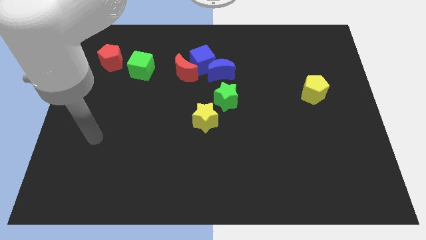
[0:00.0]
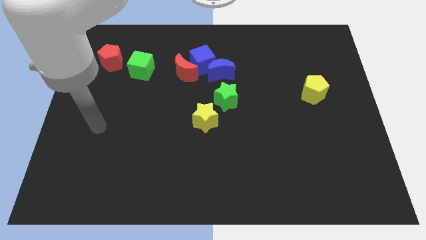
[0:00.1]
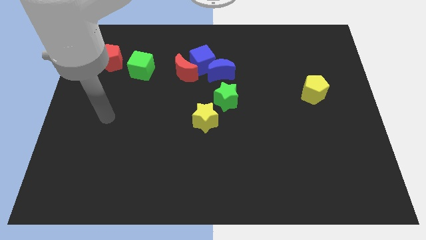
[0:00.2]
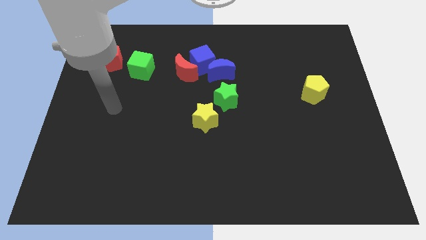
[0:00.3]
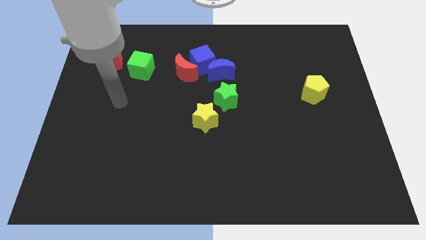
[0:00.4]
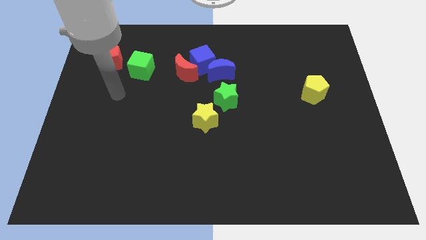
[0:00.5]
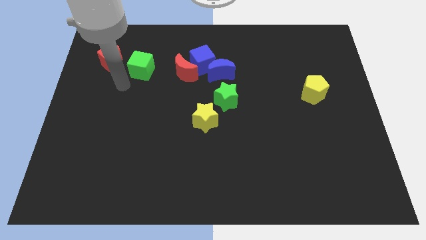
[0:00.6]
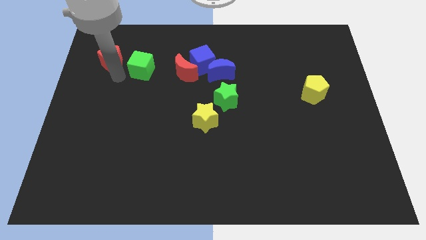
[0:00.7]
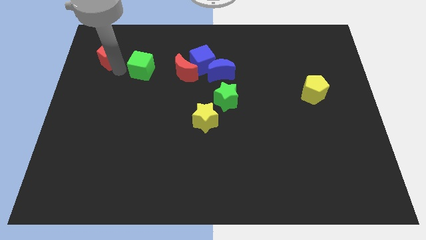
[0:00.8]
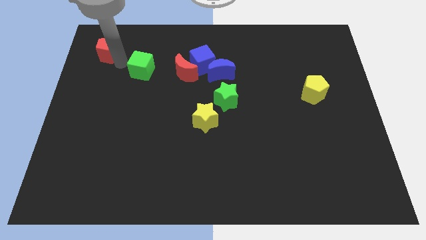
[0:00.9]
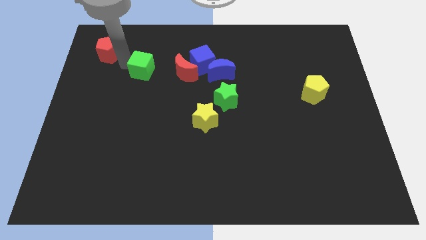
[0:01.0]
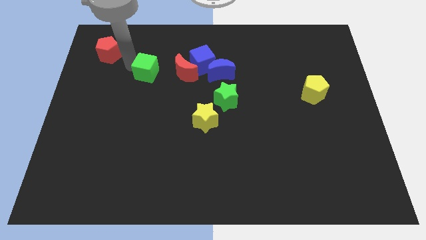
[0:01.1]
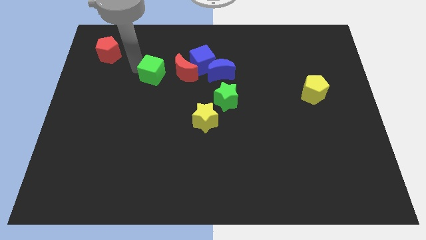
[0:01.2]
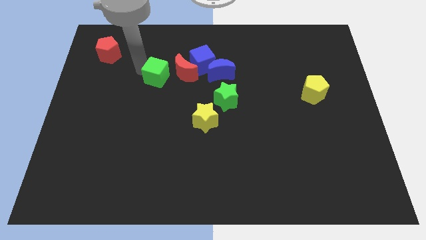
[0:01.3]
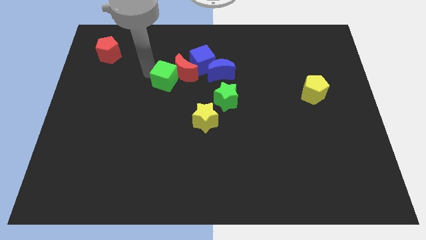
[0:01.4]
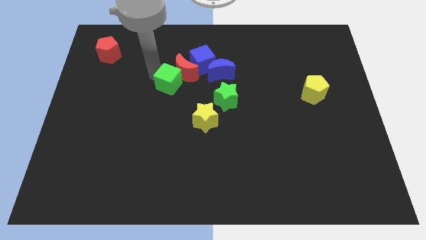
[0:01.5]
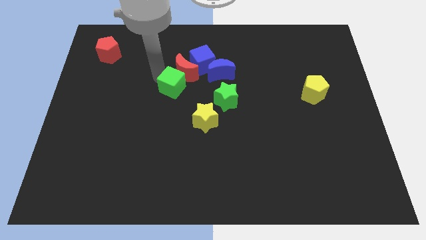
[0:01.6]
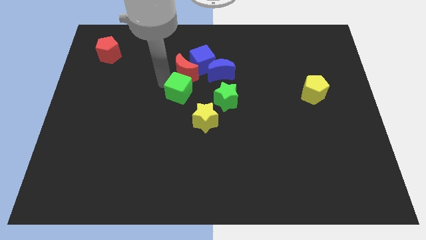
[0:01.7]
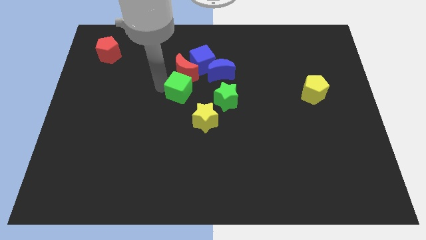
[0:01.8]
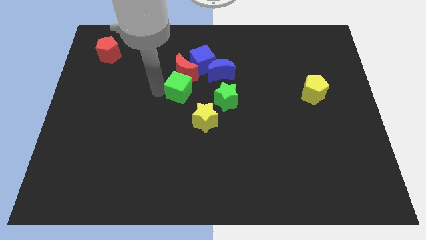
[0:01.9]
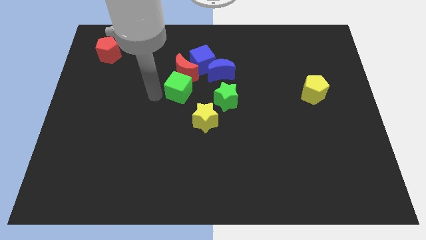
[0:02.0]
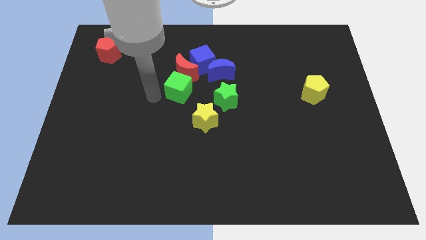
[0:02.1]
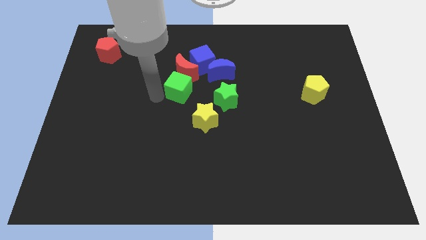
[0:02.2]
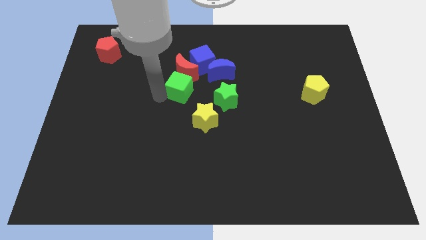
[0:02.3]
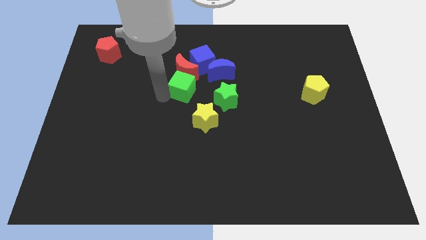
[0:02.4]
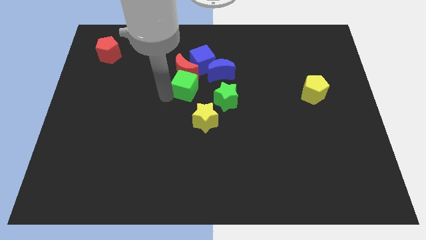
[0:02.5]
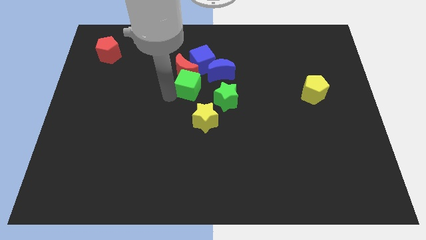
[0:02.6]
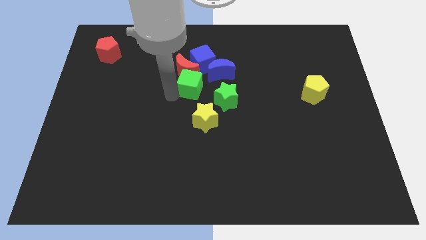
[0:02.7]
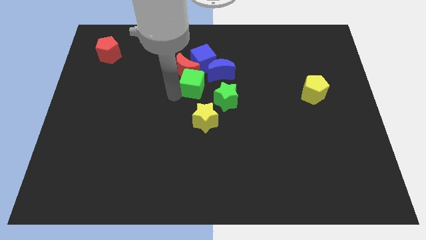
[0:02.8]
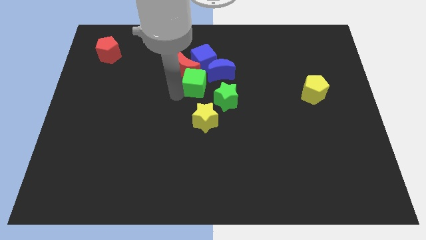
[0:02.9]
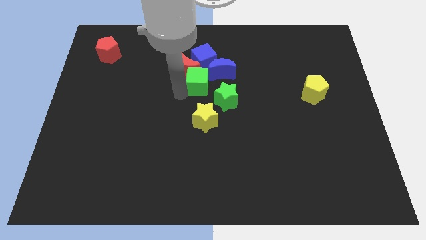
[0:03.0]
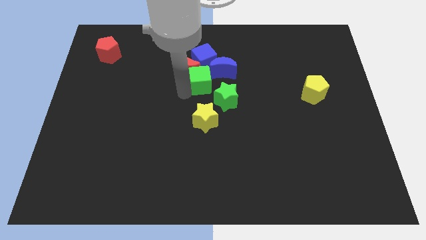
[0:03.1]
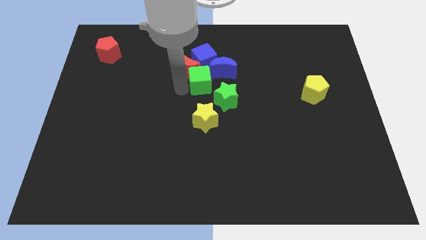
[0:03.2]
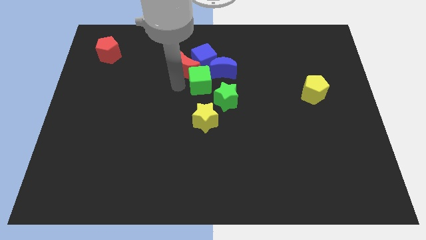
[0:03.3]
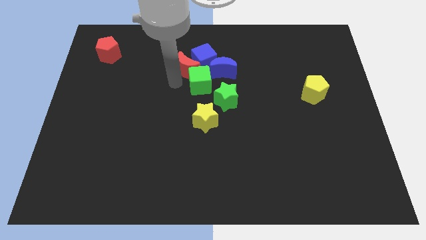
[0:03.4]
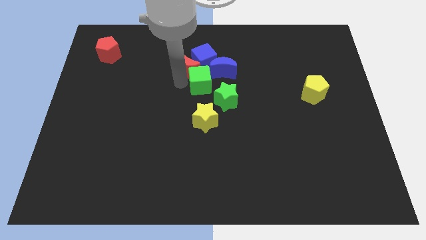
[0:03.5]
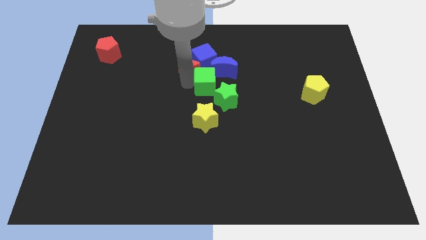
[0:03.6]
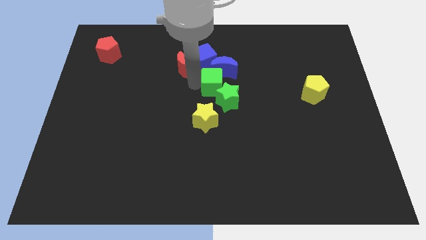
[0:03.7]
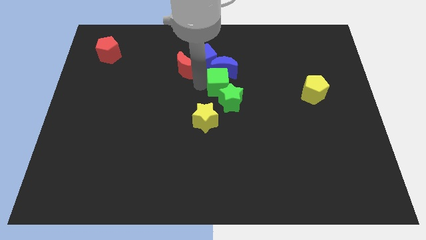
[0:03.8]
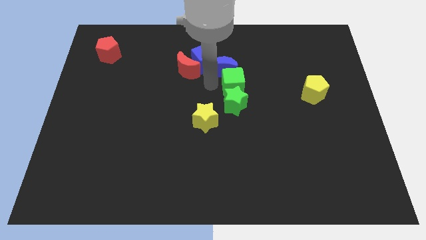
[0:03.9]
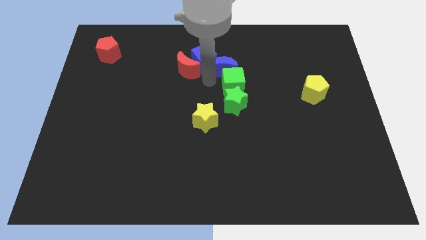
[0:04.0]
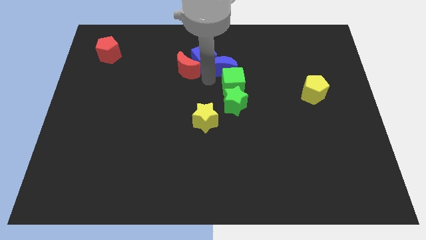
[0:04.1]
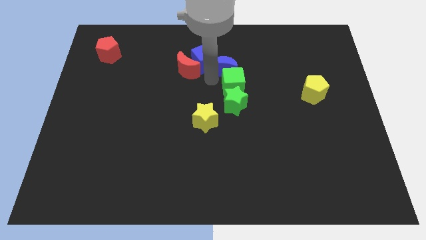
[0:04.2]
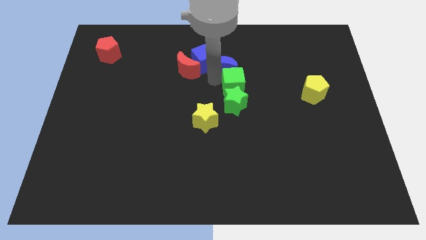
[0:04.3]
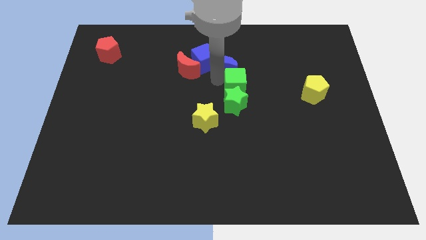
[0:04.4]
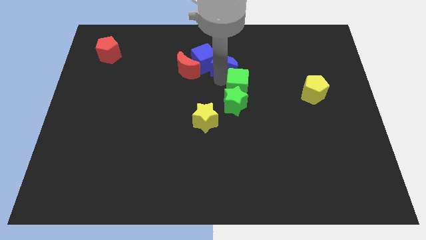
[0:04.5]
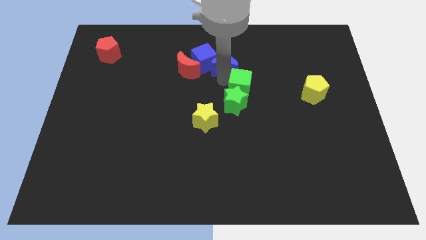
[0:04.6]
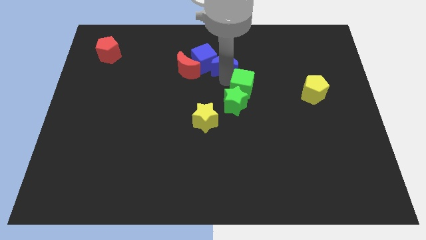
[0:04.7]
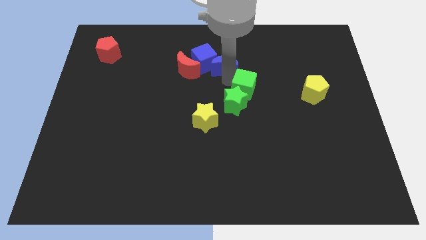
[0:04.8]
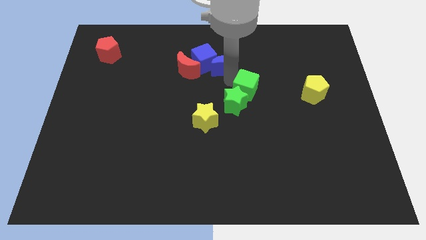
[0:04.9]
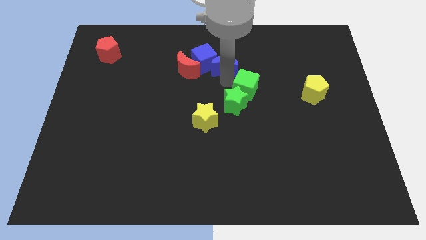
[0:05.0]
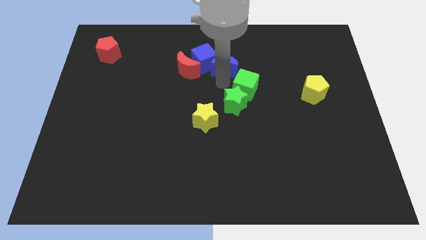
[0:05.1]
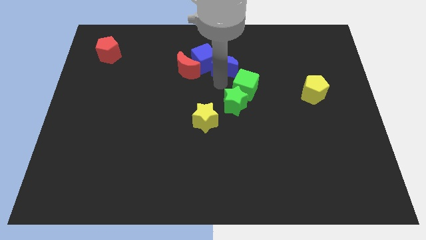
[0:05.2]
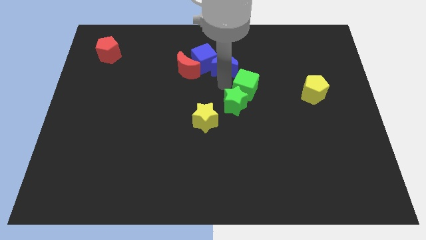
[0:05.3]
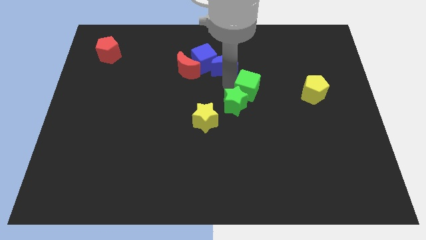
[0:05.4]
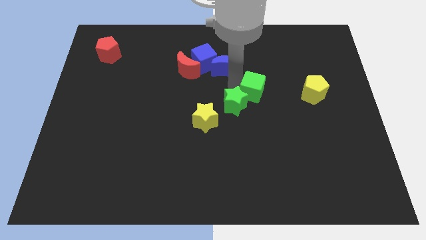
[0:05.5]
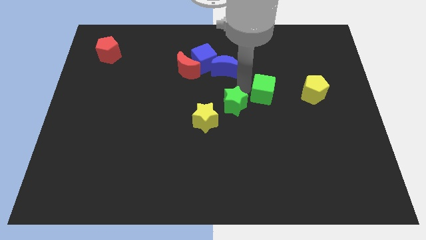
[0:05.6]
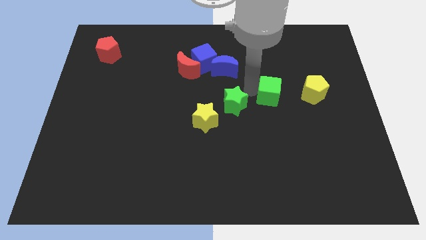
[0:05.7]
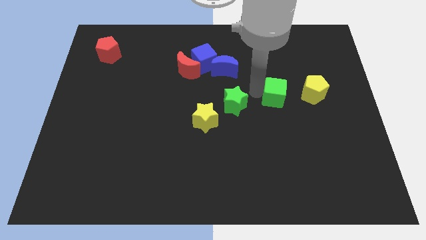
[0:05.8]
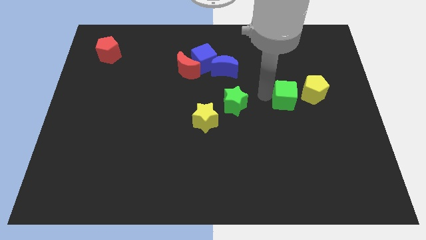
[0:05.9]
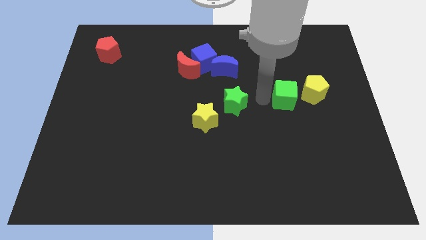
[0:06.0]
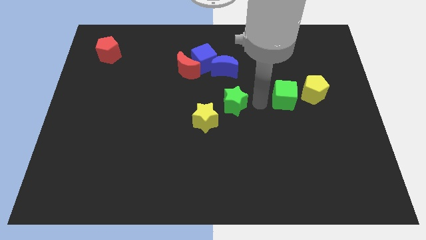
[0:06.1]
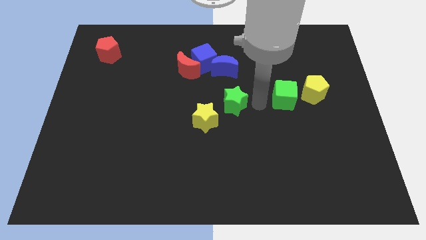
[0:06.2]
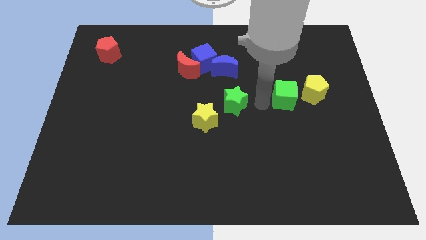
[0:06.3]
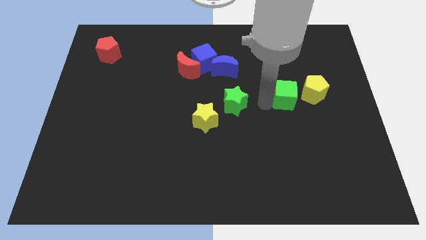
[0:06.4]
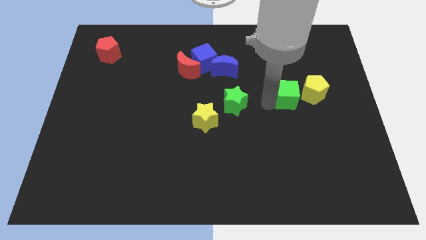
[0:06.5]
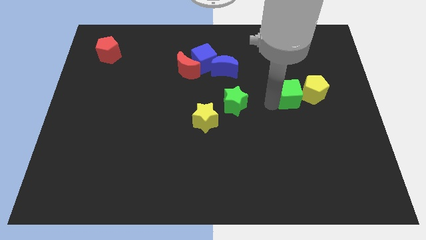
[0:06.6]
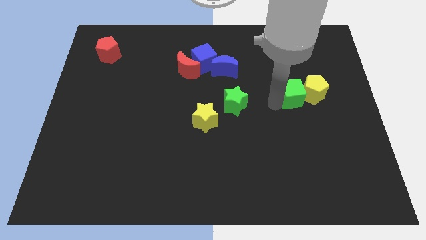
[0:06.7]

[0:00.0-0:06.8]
put the green cube towards the yellow pentagon
